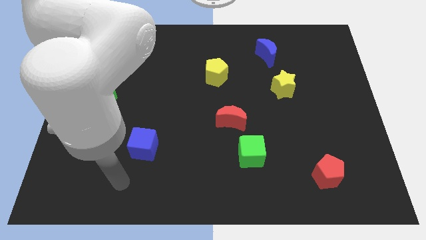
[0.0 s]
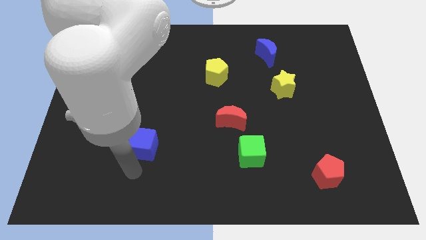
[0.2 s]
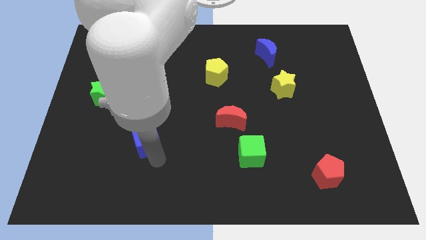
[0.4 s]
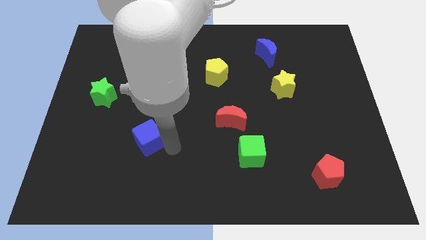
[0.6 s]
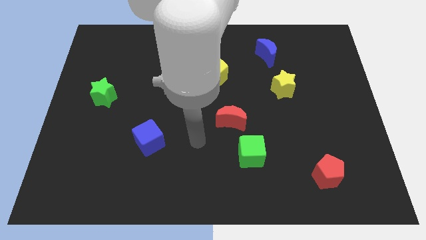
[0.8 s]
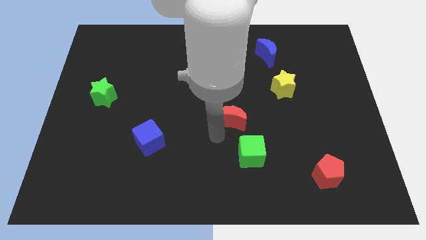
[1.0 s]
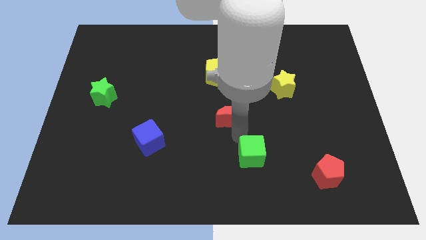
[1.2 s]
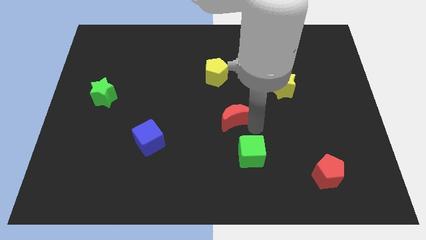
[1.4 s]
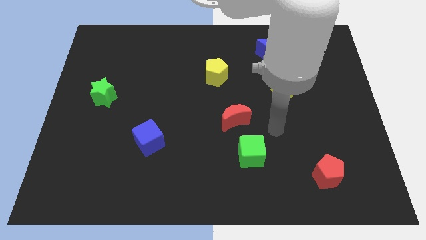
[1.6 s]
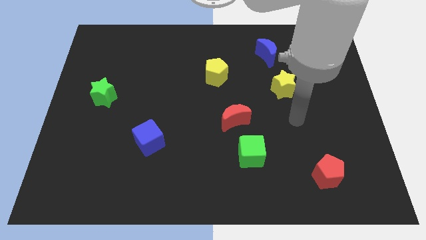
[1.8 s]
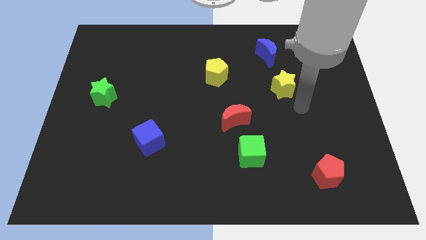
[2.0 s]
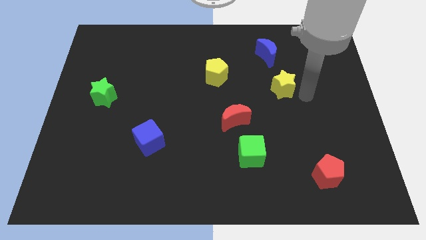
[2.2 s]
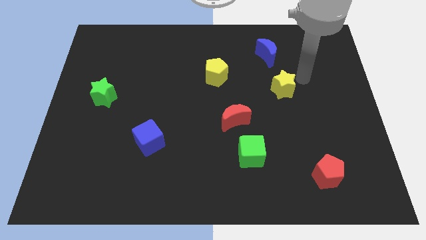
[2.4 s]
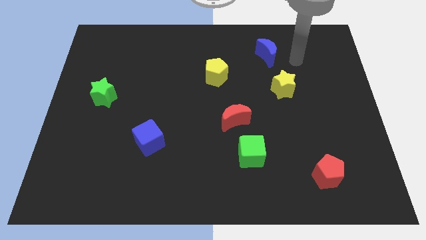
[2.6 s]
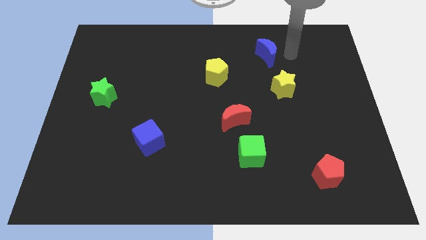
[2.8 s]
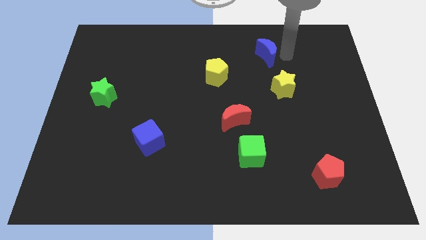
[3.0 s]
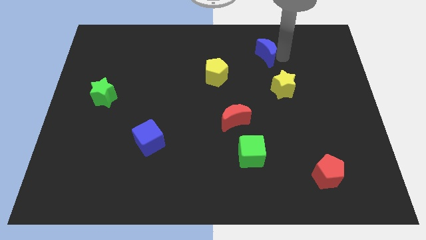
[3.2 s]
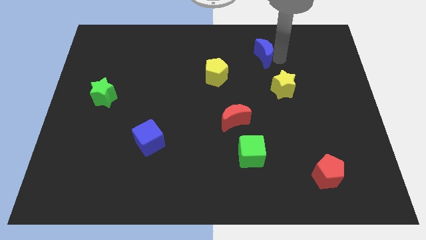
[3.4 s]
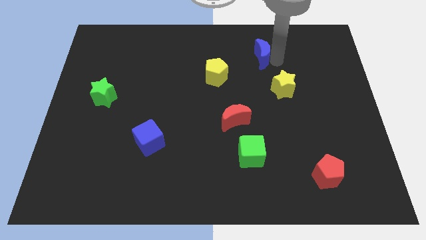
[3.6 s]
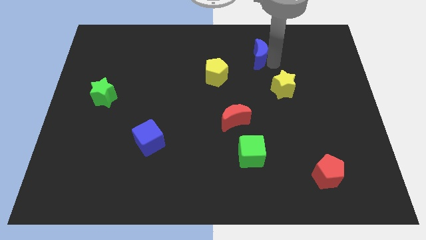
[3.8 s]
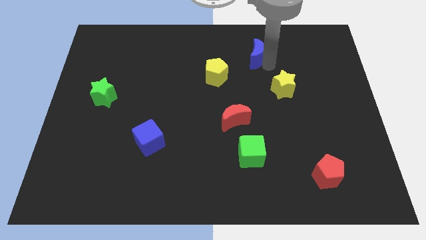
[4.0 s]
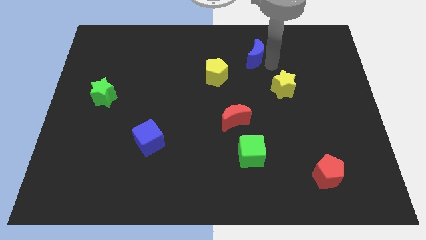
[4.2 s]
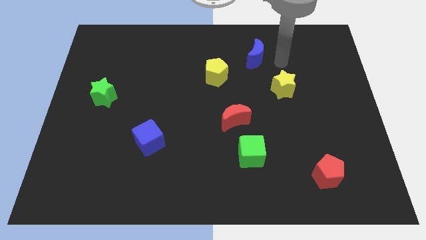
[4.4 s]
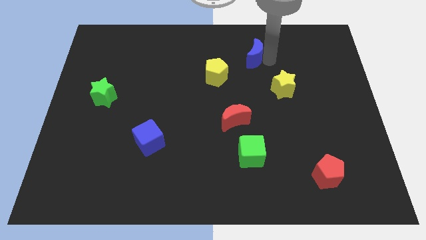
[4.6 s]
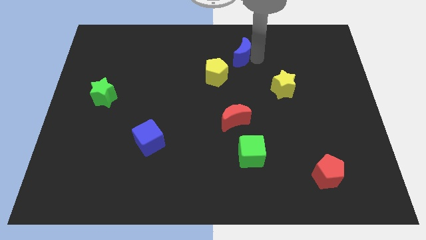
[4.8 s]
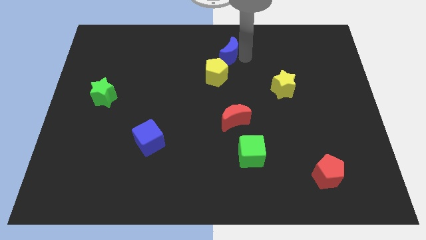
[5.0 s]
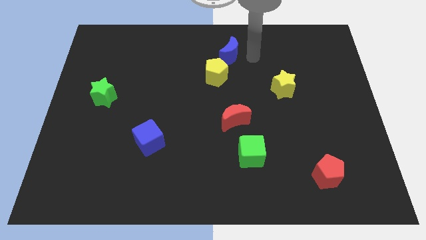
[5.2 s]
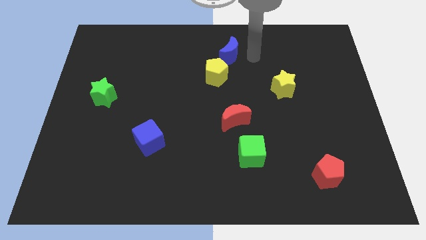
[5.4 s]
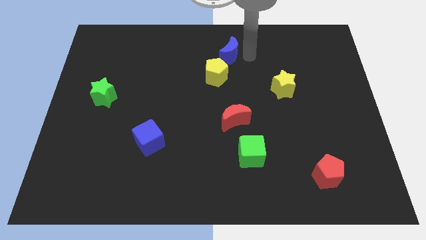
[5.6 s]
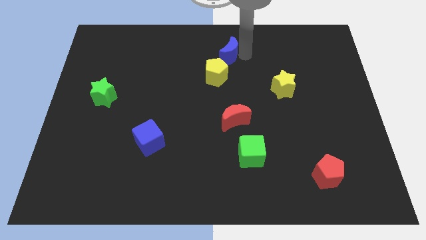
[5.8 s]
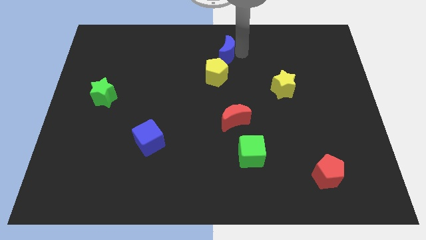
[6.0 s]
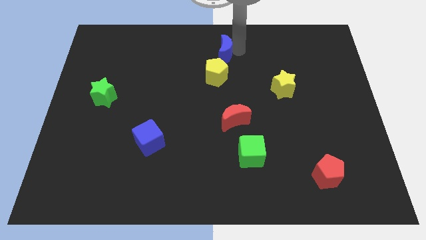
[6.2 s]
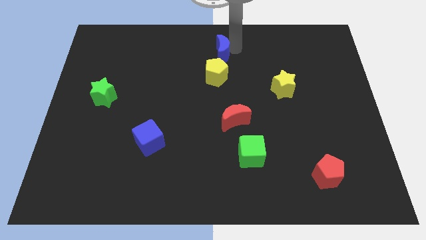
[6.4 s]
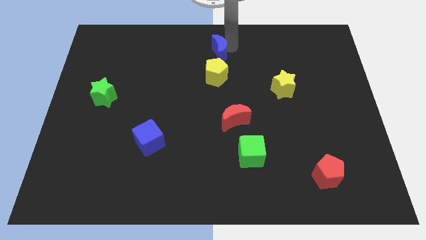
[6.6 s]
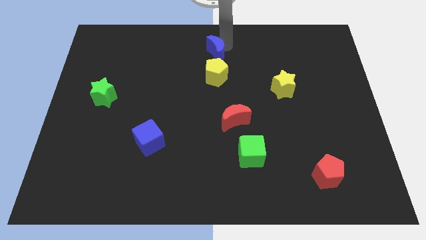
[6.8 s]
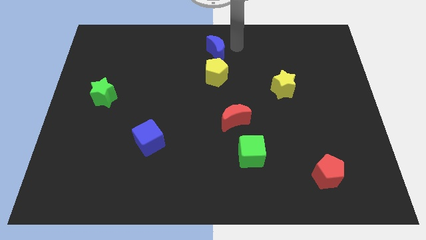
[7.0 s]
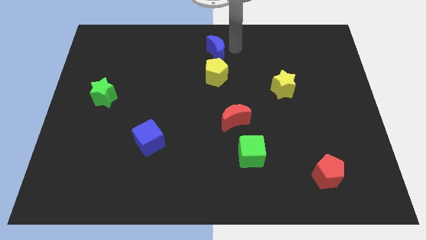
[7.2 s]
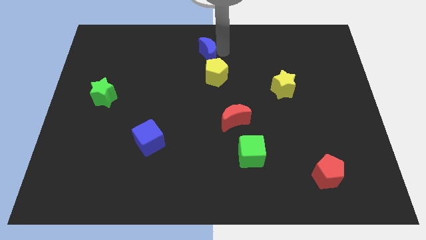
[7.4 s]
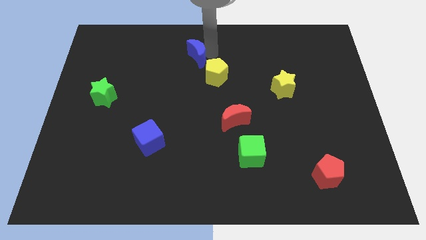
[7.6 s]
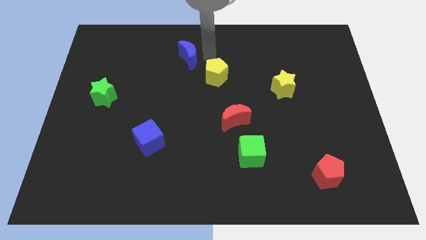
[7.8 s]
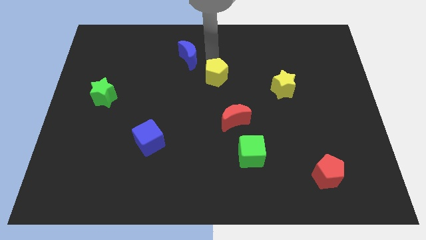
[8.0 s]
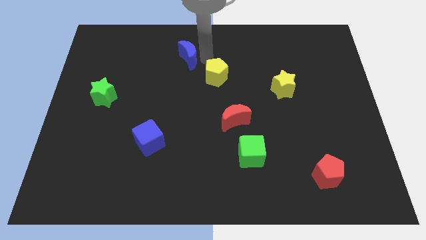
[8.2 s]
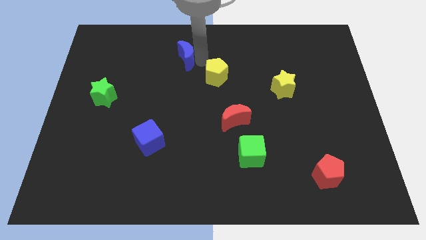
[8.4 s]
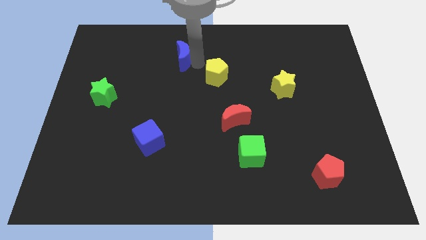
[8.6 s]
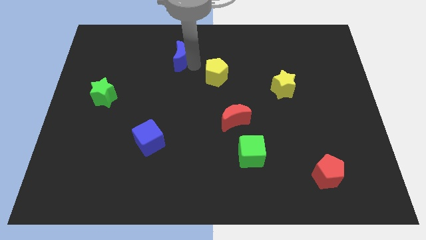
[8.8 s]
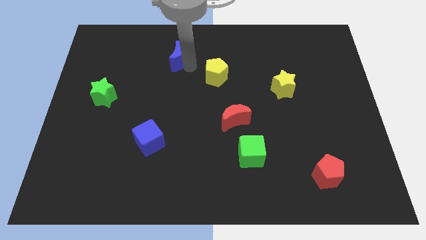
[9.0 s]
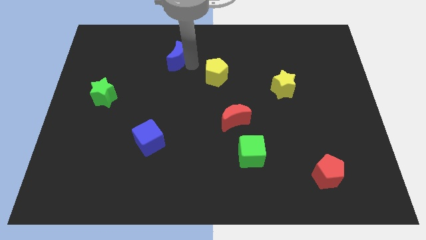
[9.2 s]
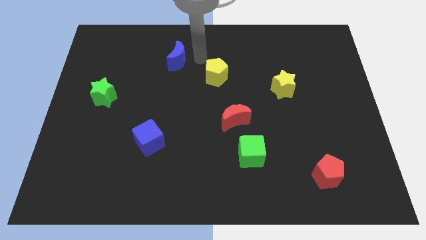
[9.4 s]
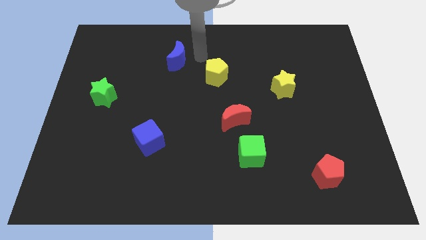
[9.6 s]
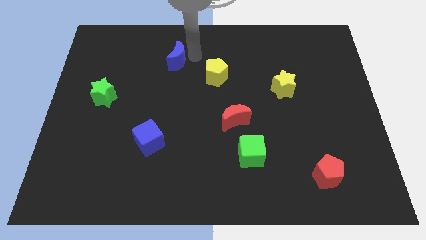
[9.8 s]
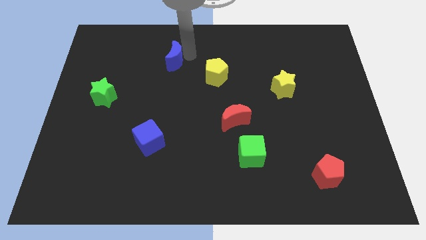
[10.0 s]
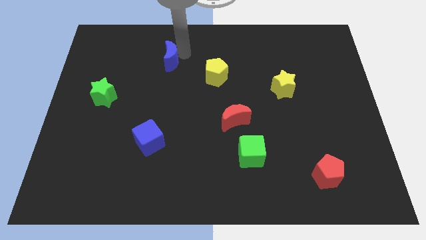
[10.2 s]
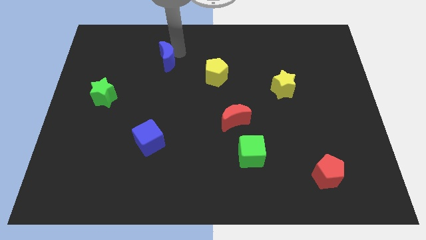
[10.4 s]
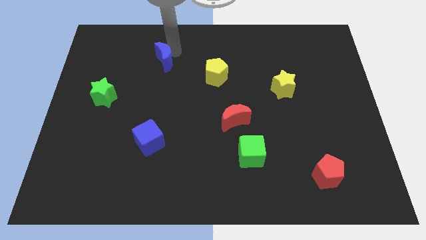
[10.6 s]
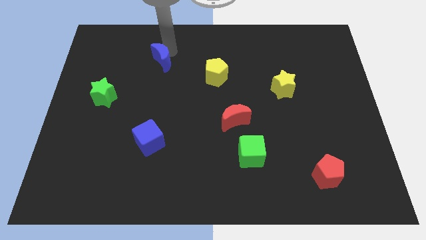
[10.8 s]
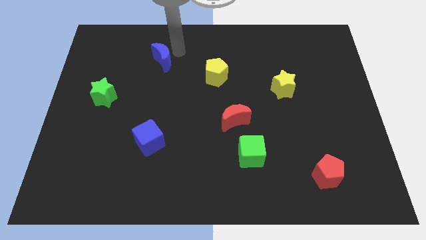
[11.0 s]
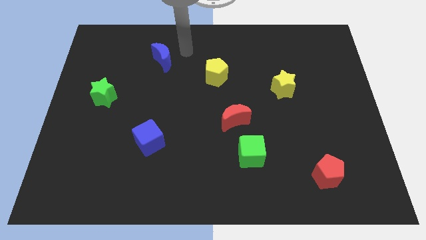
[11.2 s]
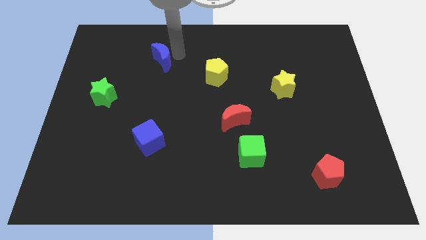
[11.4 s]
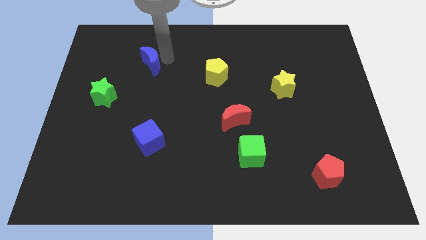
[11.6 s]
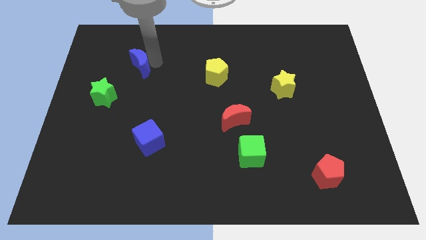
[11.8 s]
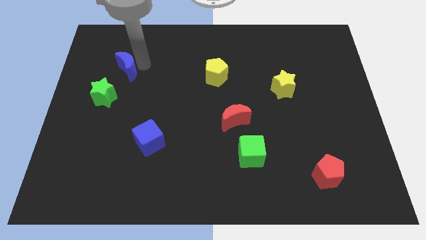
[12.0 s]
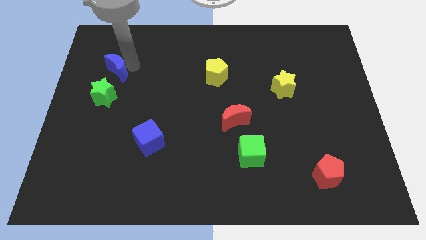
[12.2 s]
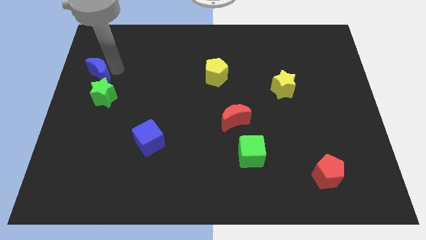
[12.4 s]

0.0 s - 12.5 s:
push the blue moon to the left side of the board
